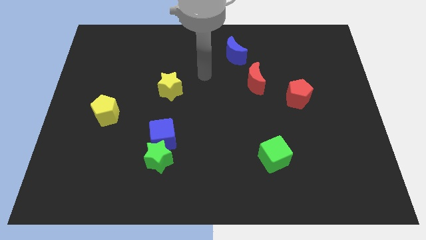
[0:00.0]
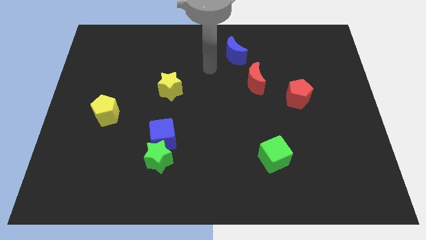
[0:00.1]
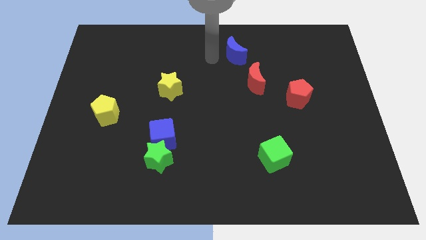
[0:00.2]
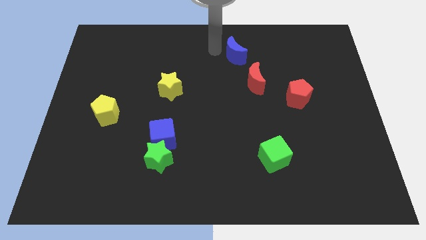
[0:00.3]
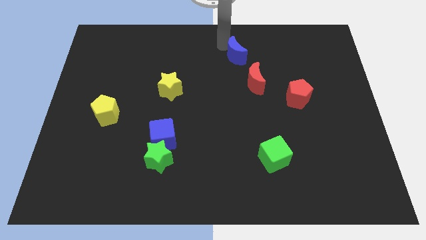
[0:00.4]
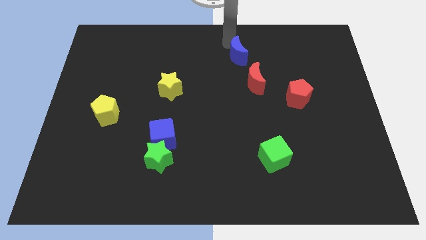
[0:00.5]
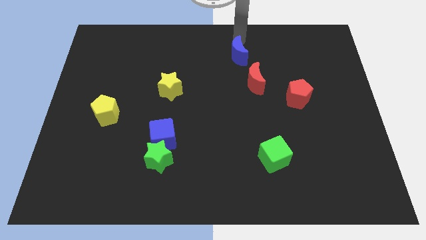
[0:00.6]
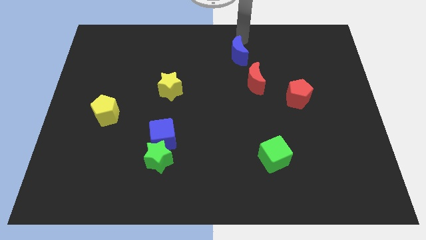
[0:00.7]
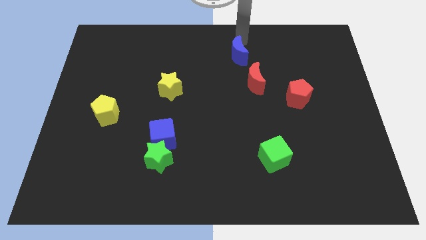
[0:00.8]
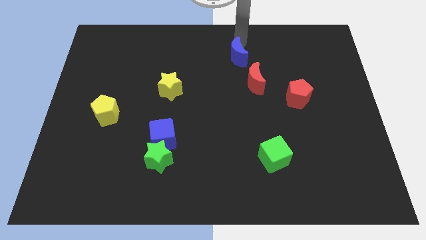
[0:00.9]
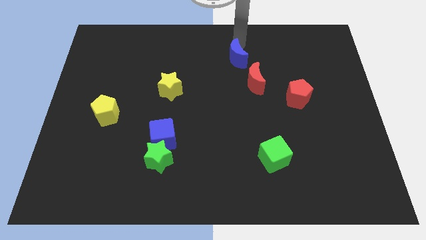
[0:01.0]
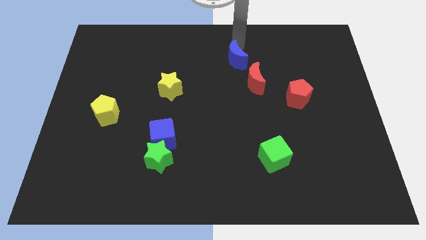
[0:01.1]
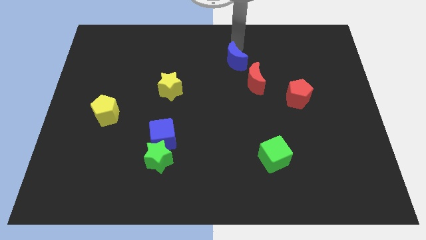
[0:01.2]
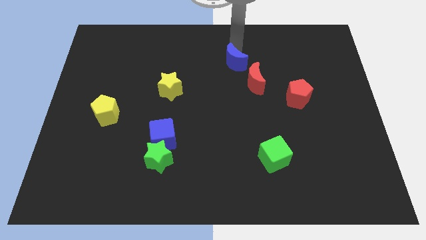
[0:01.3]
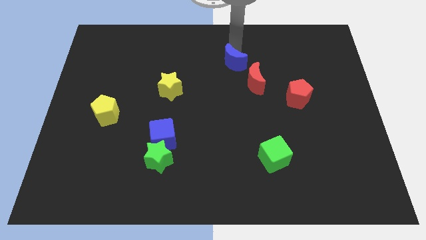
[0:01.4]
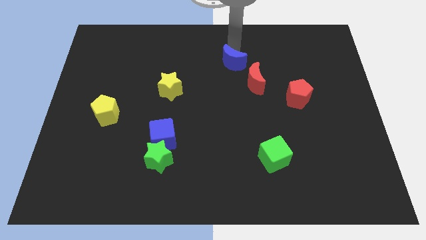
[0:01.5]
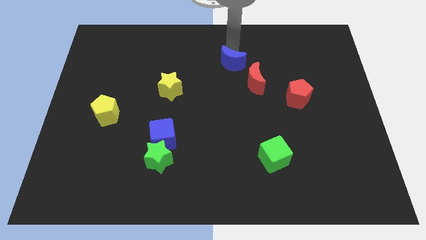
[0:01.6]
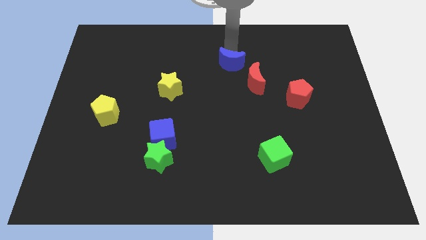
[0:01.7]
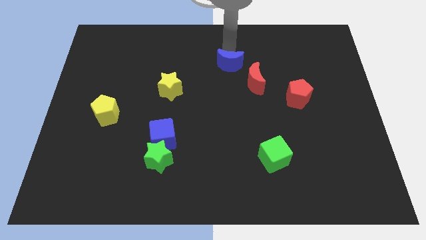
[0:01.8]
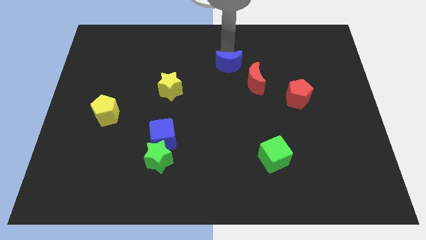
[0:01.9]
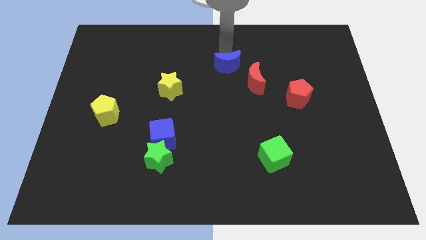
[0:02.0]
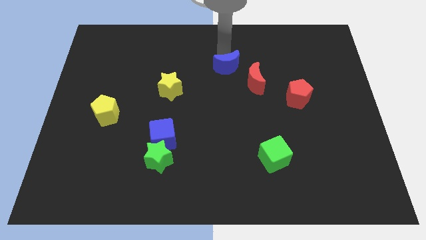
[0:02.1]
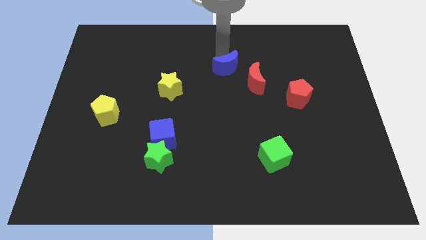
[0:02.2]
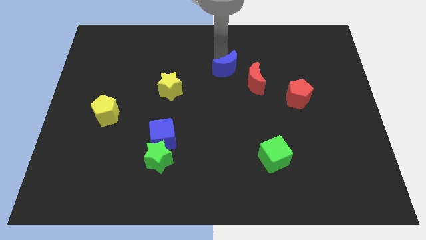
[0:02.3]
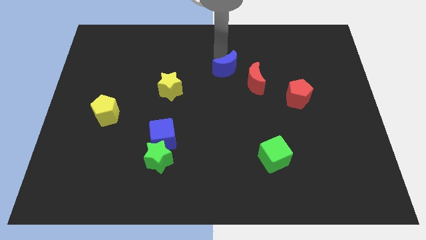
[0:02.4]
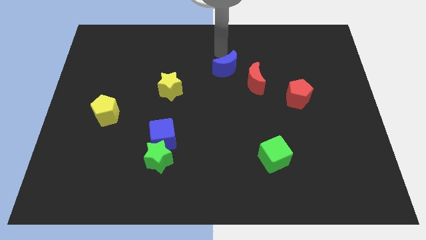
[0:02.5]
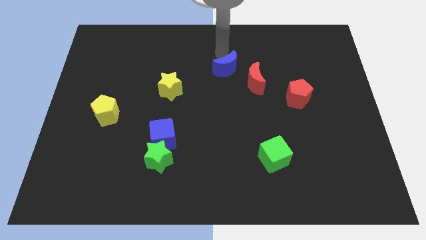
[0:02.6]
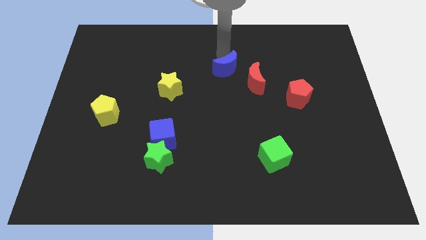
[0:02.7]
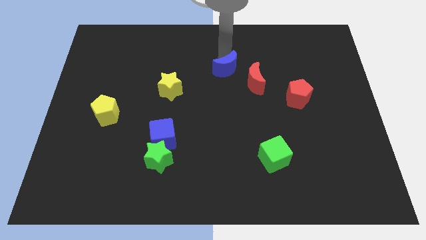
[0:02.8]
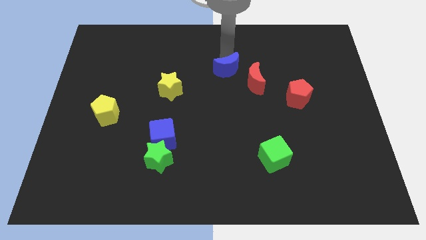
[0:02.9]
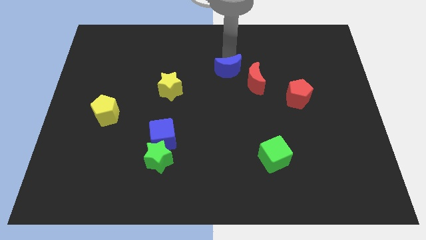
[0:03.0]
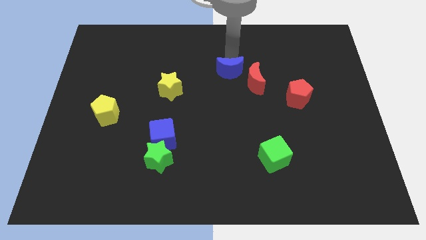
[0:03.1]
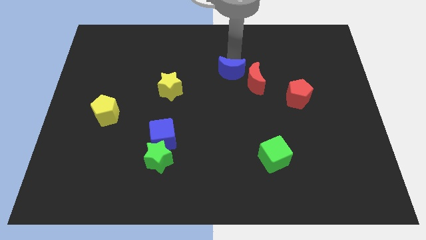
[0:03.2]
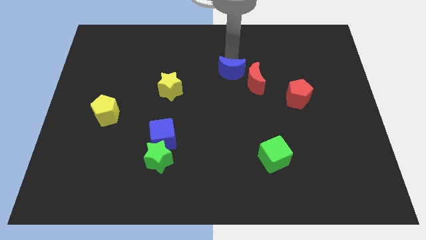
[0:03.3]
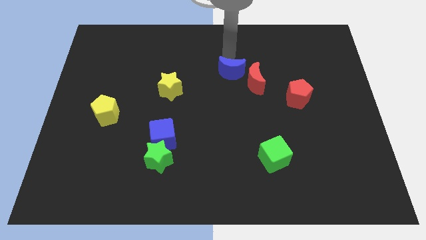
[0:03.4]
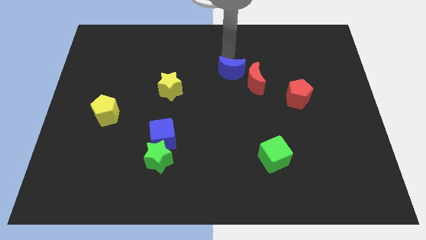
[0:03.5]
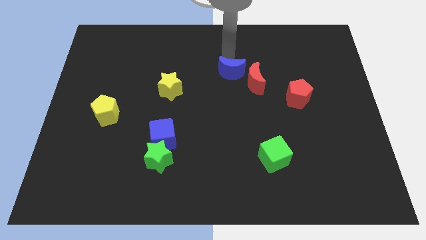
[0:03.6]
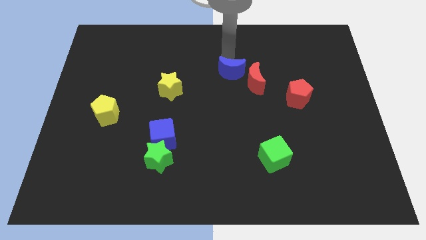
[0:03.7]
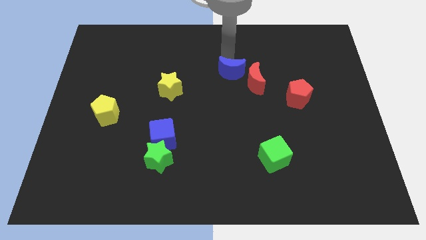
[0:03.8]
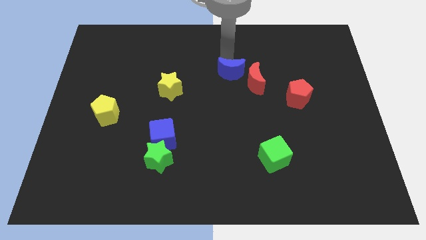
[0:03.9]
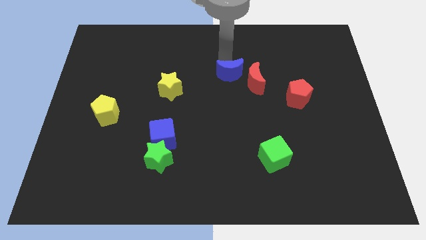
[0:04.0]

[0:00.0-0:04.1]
push the blue moon somewhat downwards

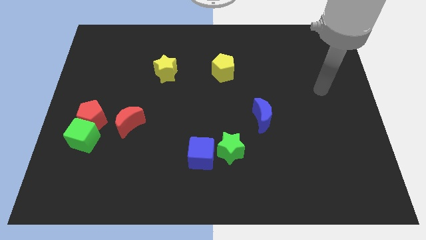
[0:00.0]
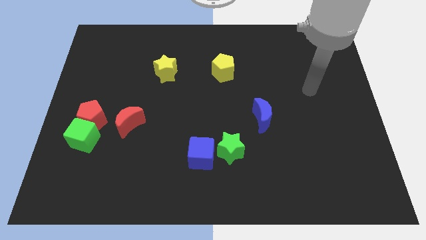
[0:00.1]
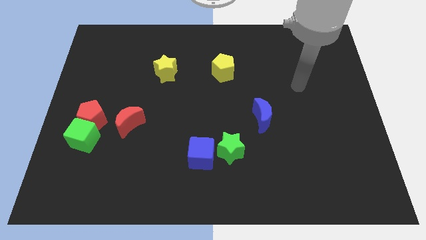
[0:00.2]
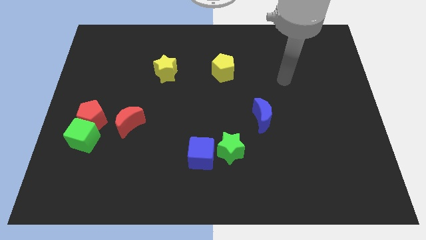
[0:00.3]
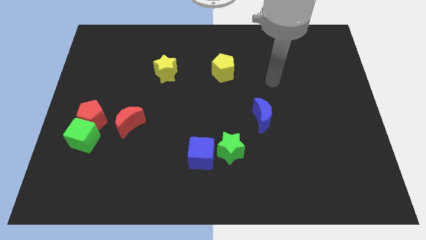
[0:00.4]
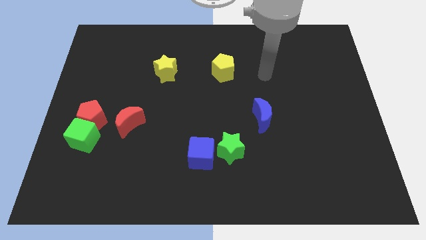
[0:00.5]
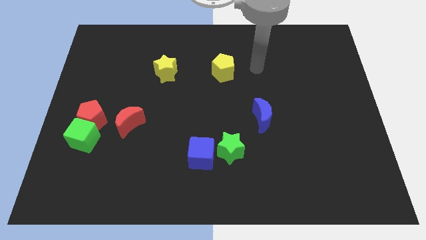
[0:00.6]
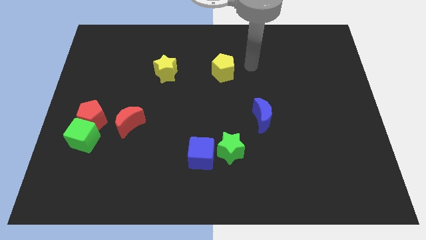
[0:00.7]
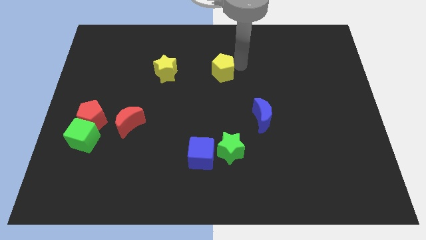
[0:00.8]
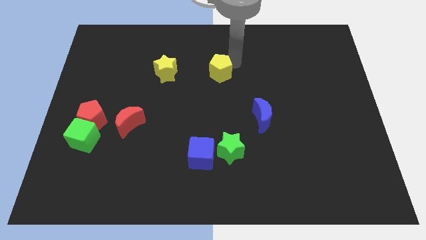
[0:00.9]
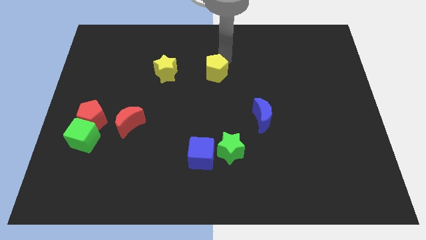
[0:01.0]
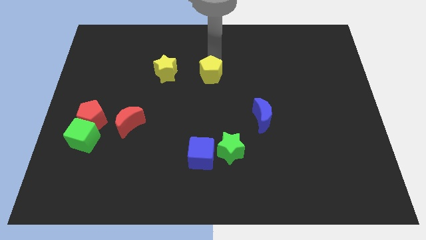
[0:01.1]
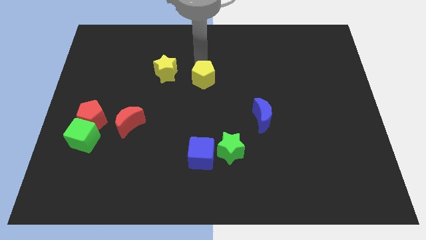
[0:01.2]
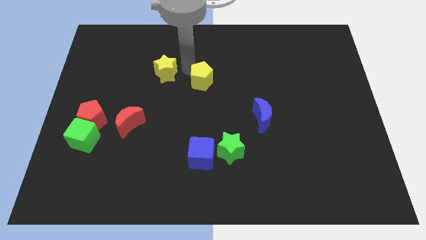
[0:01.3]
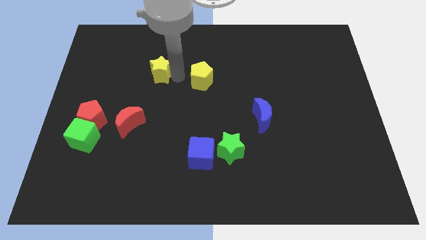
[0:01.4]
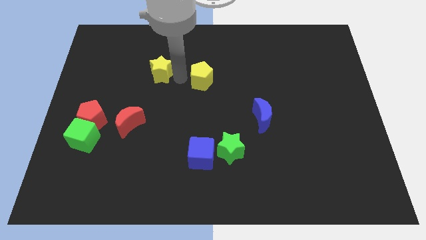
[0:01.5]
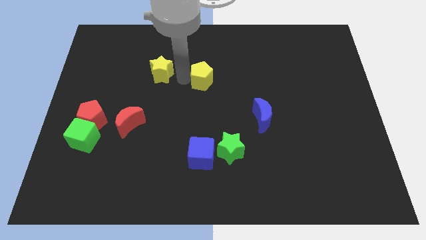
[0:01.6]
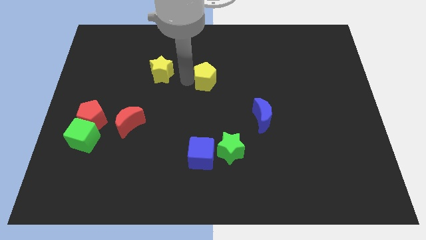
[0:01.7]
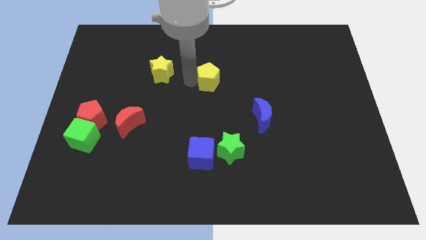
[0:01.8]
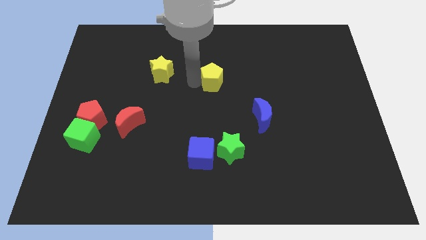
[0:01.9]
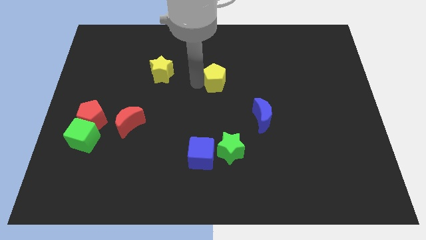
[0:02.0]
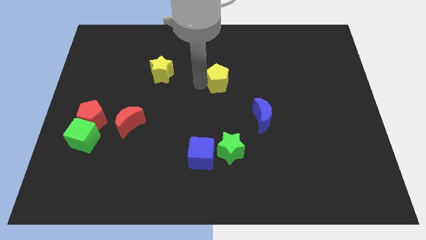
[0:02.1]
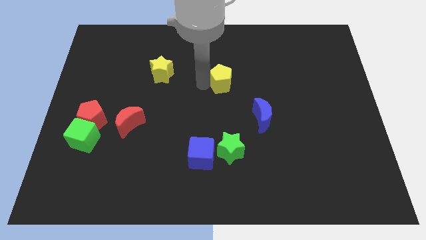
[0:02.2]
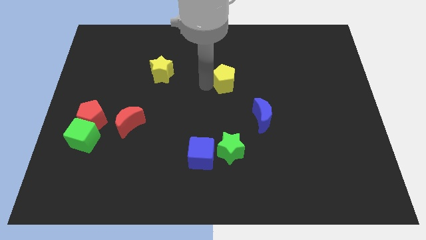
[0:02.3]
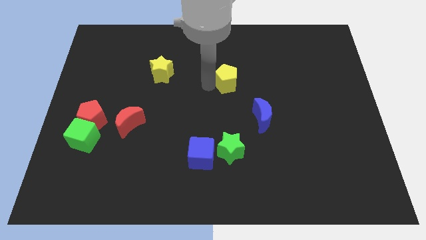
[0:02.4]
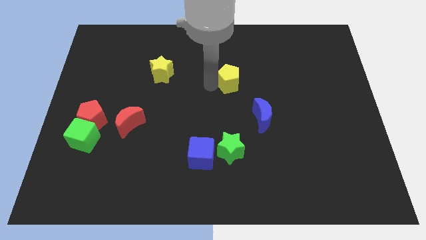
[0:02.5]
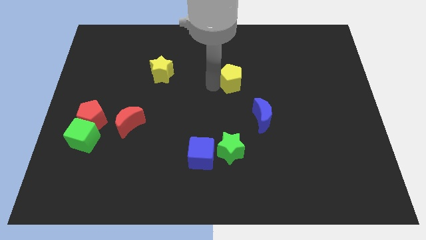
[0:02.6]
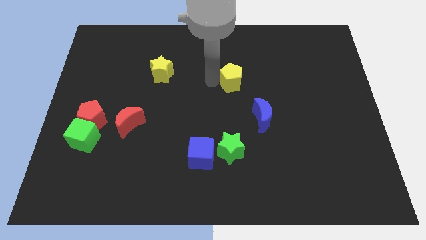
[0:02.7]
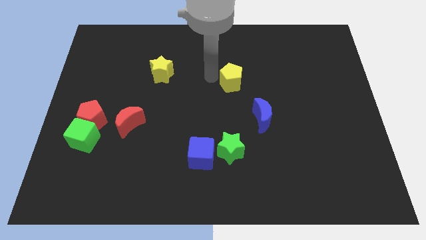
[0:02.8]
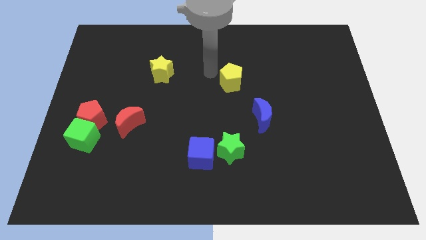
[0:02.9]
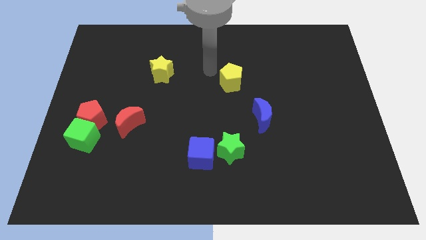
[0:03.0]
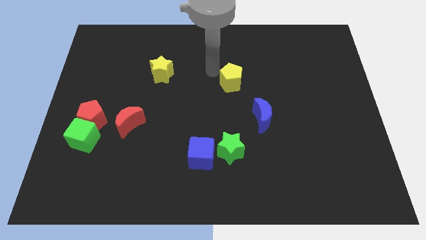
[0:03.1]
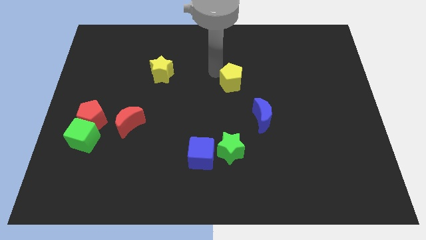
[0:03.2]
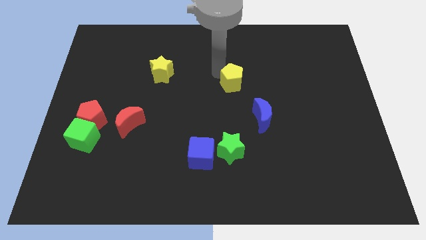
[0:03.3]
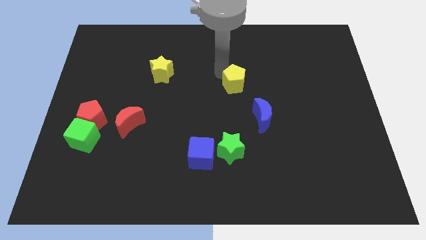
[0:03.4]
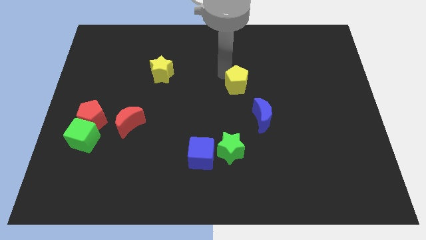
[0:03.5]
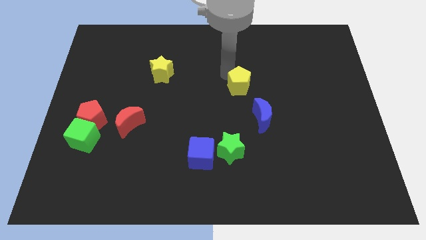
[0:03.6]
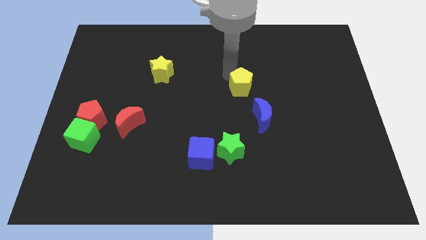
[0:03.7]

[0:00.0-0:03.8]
slightly slide the yellow pentagon down and then right

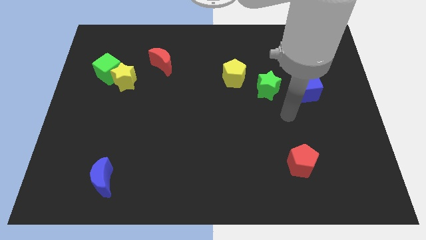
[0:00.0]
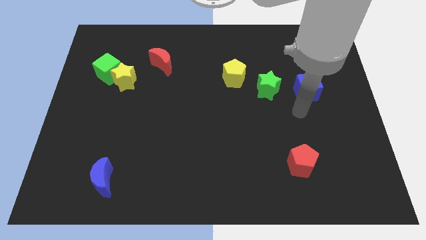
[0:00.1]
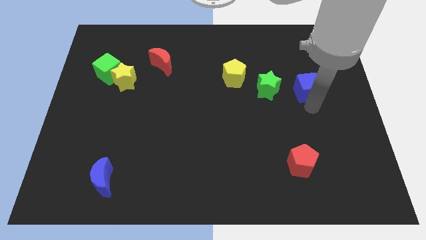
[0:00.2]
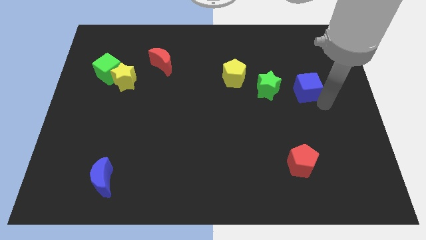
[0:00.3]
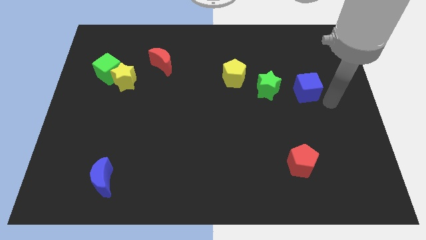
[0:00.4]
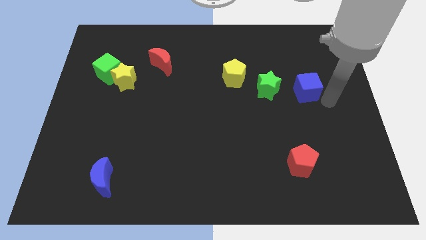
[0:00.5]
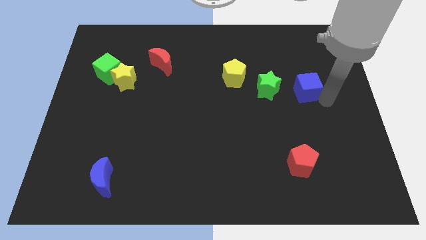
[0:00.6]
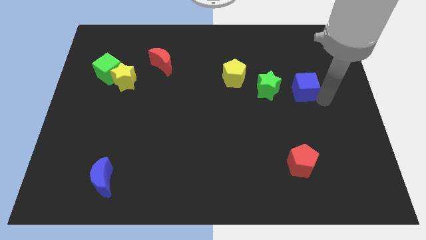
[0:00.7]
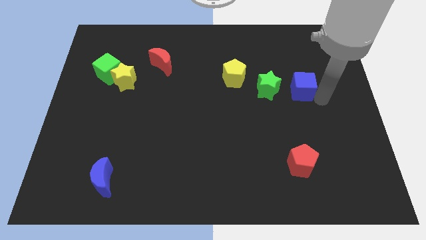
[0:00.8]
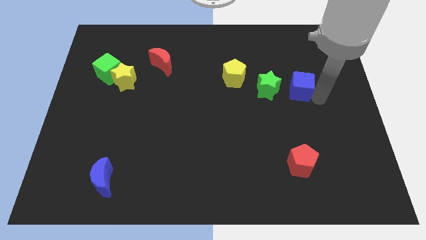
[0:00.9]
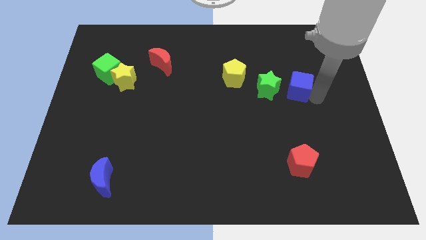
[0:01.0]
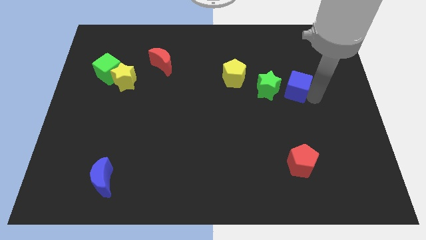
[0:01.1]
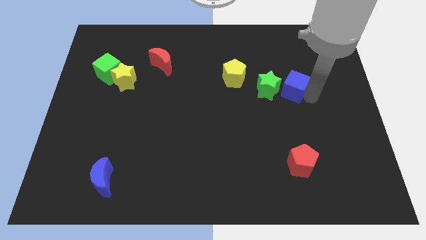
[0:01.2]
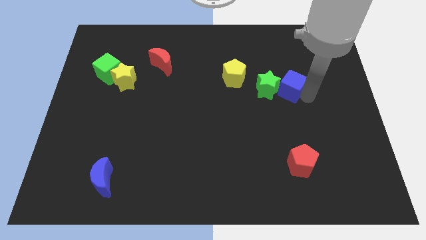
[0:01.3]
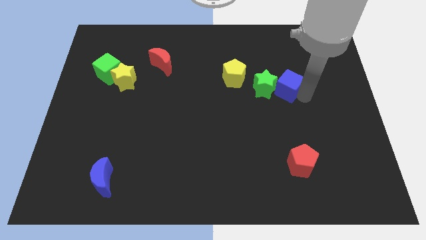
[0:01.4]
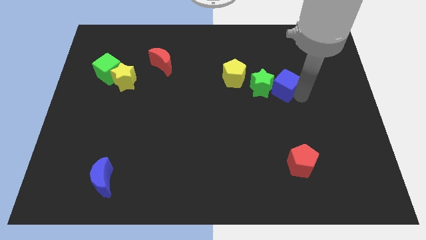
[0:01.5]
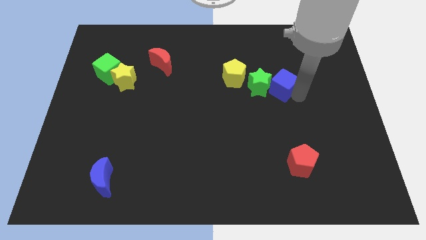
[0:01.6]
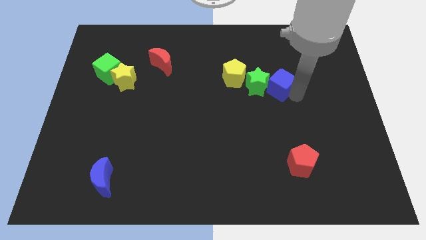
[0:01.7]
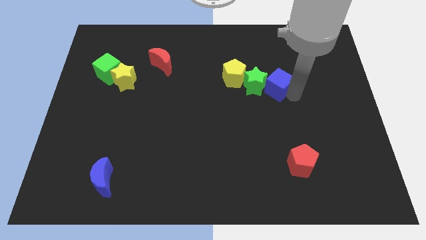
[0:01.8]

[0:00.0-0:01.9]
slightly slide the blue cube to the left
